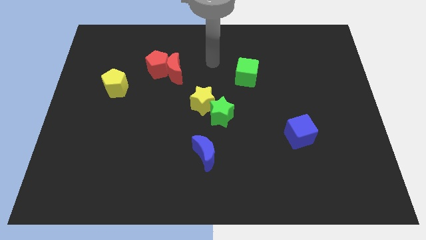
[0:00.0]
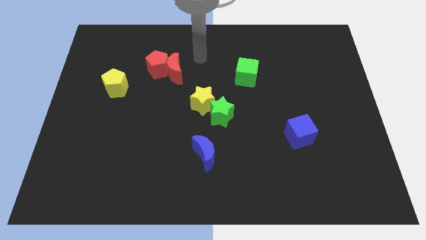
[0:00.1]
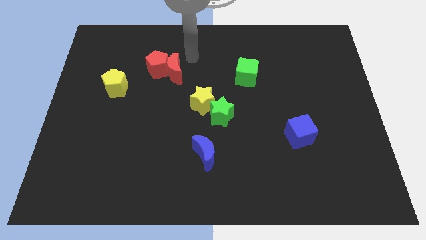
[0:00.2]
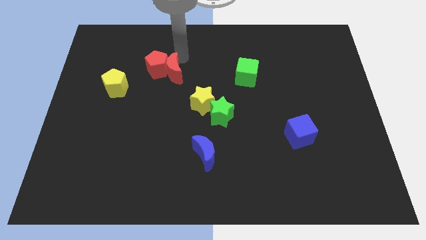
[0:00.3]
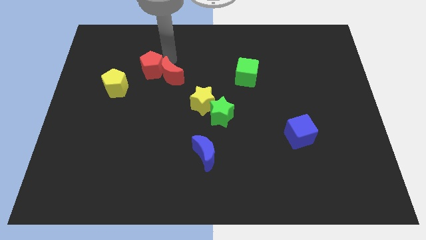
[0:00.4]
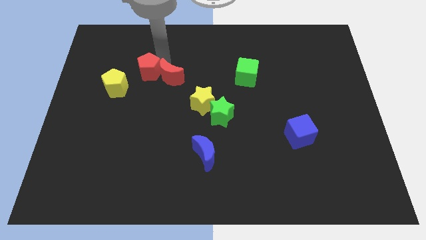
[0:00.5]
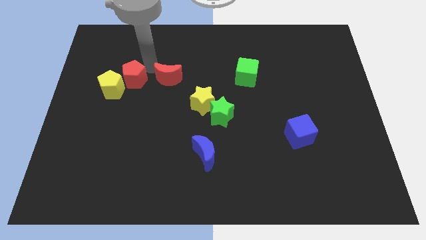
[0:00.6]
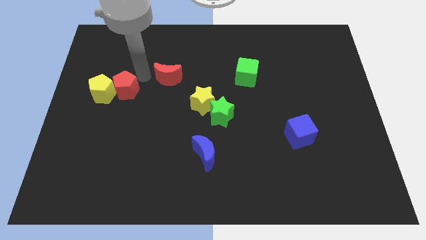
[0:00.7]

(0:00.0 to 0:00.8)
move the red moon away from the red pentagon

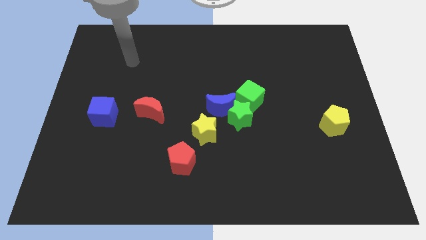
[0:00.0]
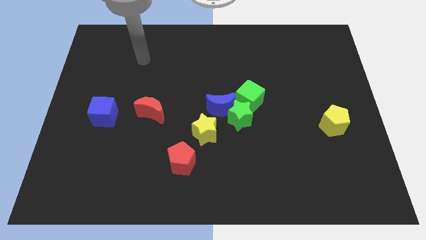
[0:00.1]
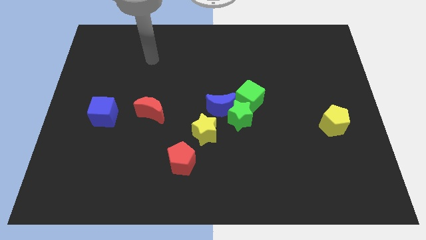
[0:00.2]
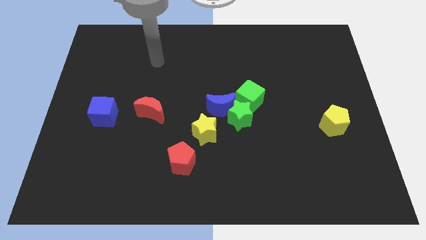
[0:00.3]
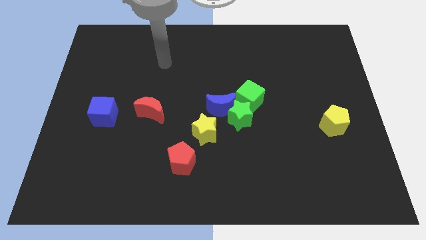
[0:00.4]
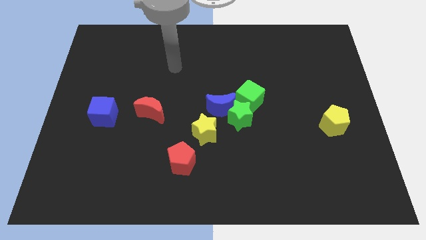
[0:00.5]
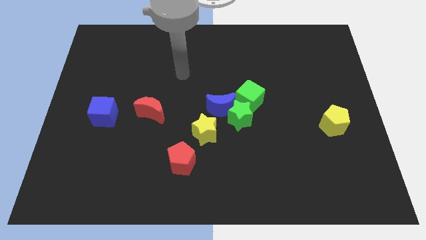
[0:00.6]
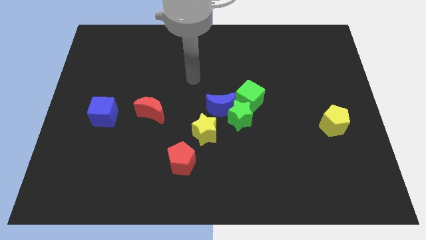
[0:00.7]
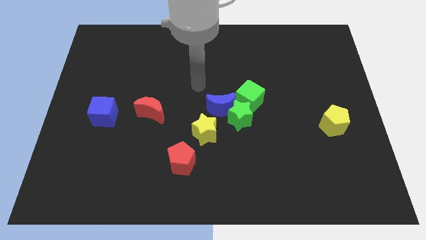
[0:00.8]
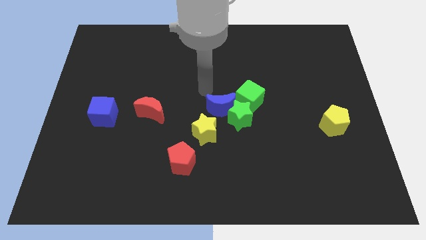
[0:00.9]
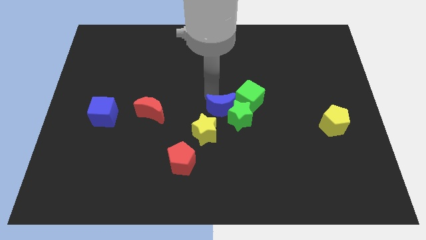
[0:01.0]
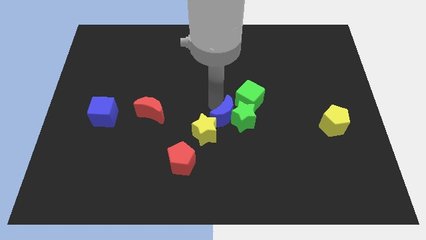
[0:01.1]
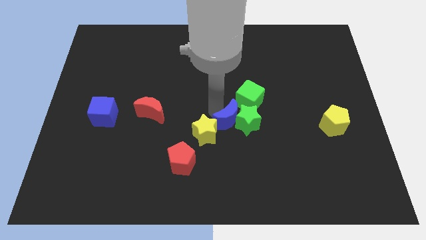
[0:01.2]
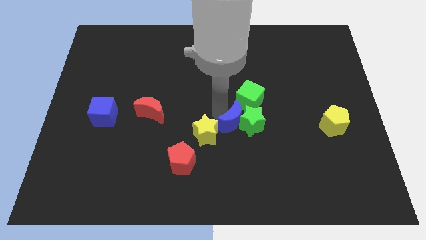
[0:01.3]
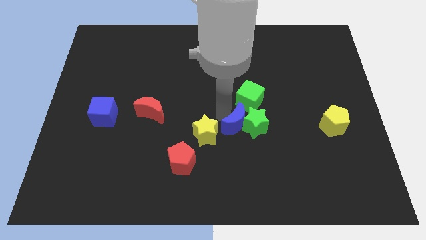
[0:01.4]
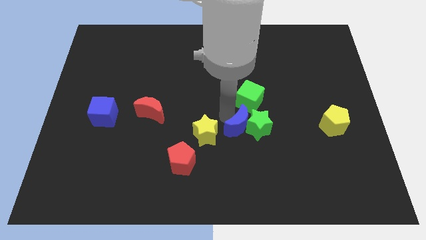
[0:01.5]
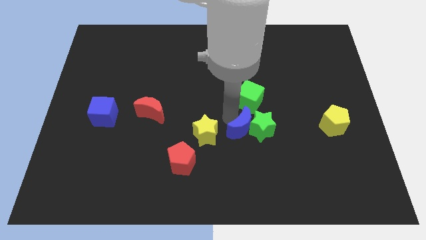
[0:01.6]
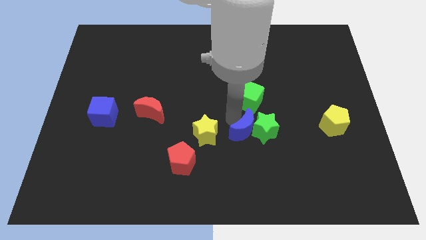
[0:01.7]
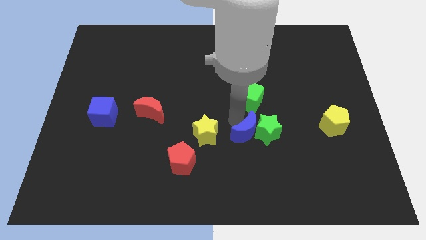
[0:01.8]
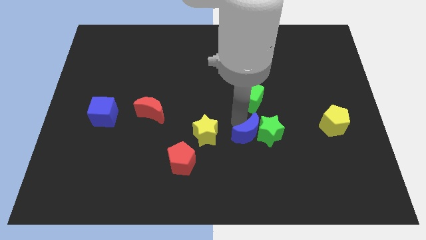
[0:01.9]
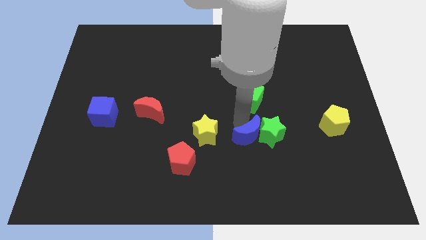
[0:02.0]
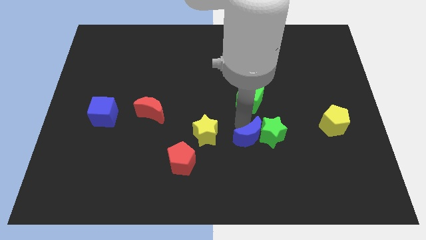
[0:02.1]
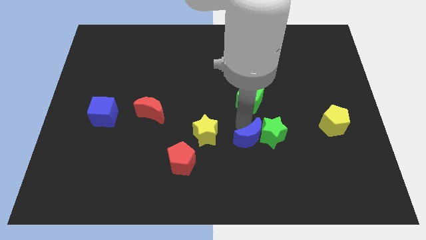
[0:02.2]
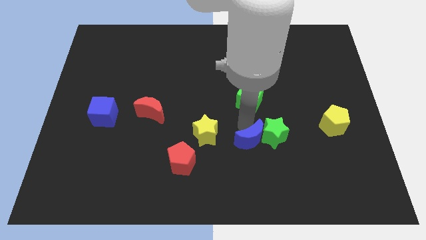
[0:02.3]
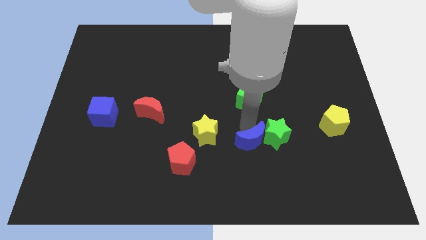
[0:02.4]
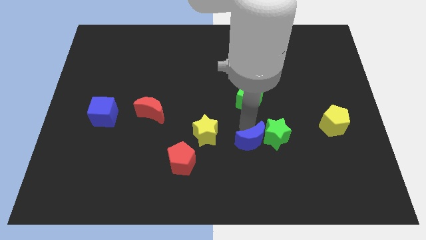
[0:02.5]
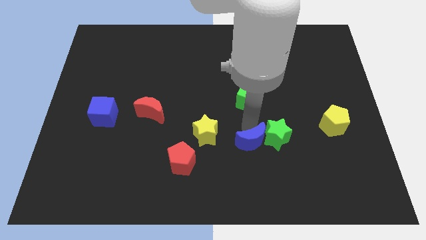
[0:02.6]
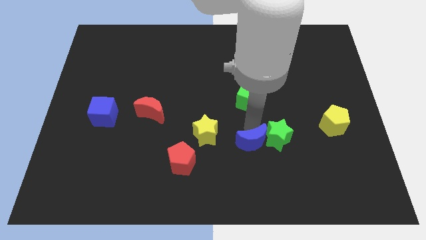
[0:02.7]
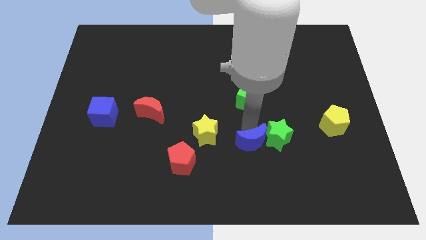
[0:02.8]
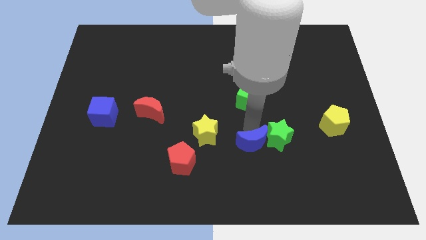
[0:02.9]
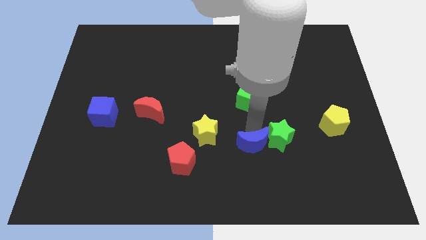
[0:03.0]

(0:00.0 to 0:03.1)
separate the green star from the blue moon, green cube, and yellow star

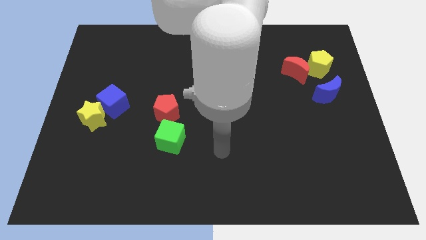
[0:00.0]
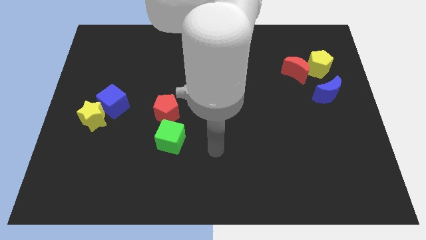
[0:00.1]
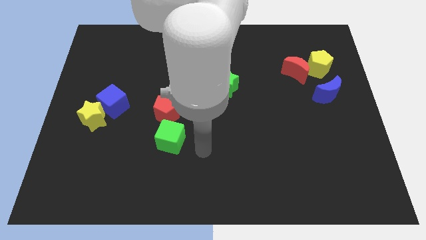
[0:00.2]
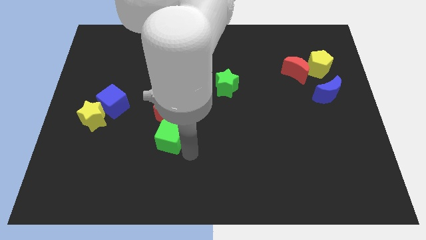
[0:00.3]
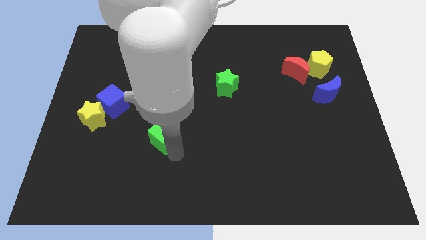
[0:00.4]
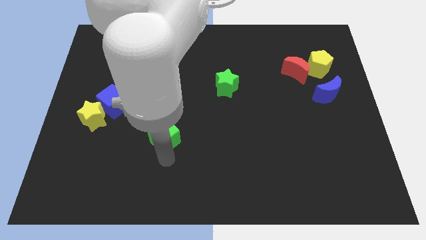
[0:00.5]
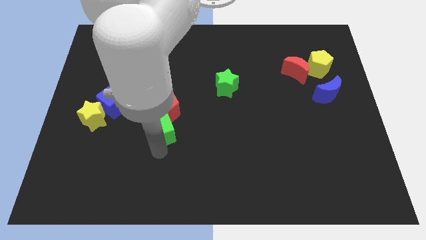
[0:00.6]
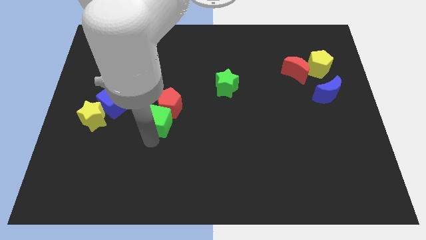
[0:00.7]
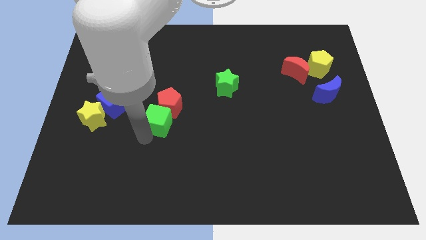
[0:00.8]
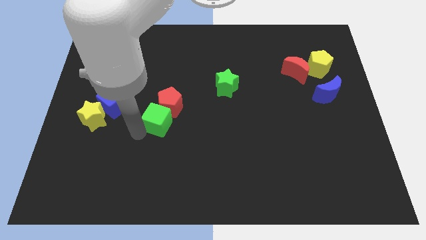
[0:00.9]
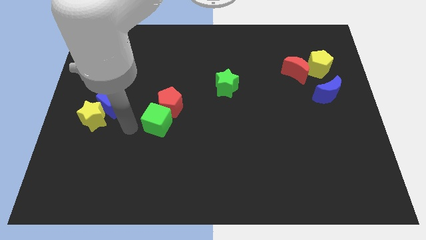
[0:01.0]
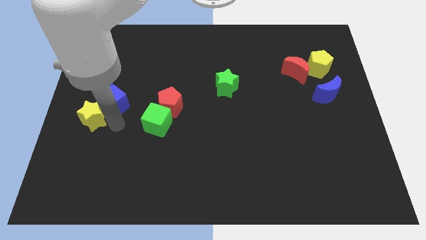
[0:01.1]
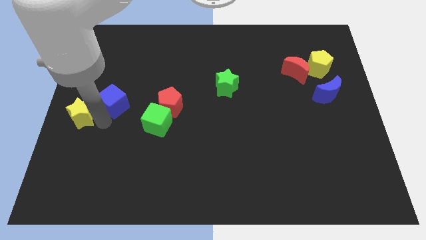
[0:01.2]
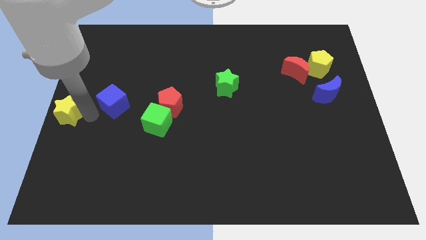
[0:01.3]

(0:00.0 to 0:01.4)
pull the blue cube apart from the yellow star

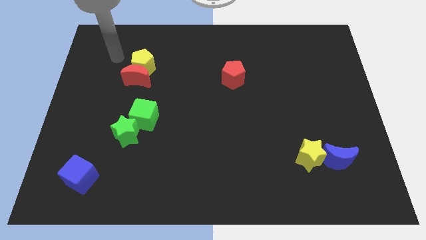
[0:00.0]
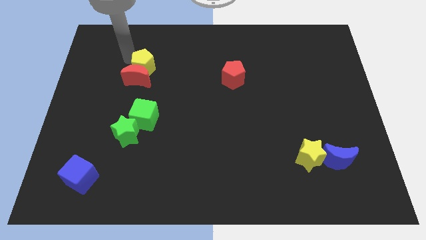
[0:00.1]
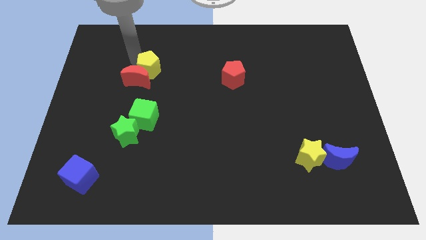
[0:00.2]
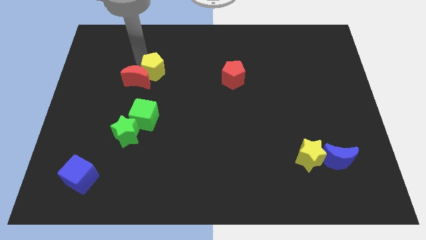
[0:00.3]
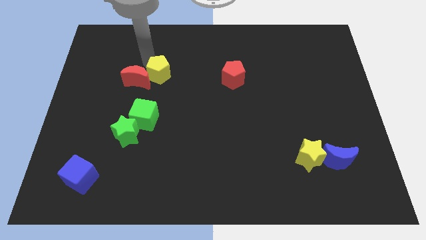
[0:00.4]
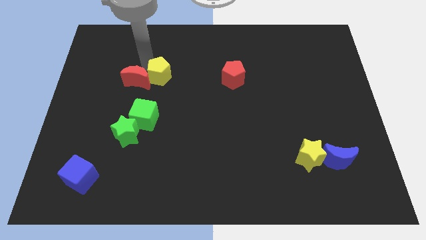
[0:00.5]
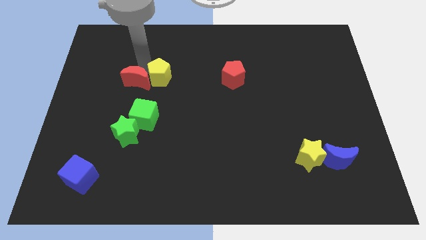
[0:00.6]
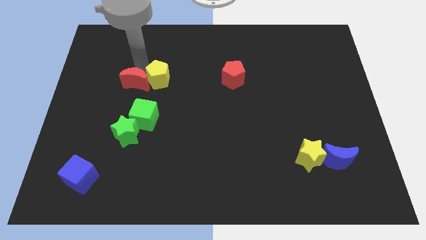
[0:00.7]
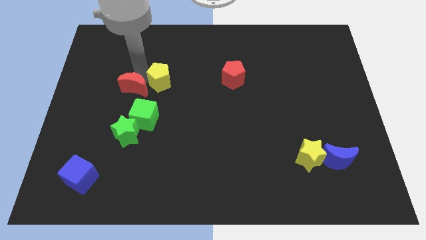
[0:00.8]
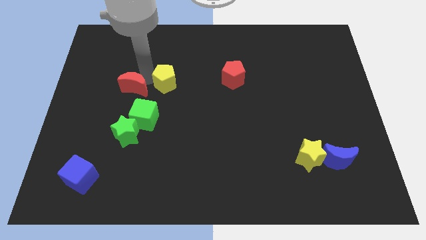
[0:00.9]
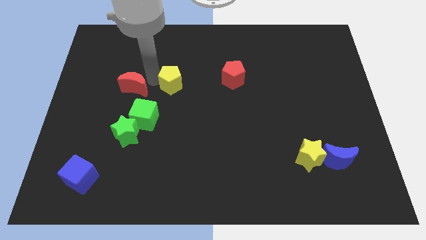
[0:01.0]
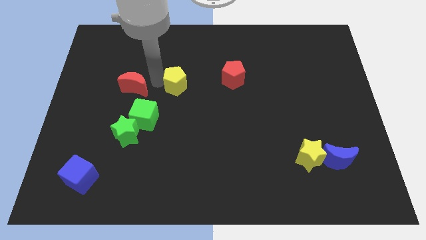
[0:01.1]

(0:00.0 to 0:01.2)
separate the red moon from the yellow pentagon

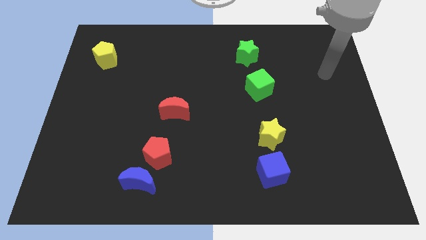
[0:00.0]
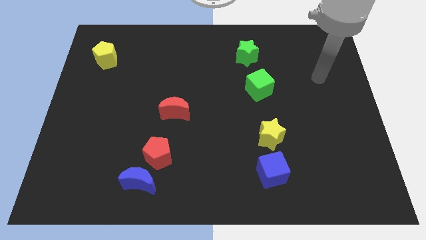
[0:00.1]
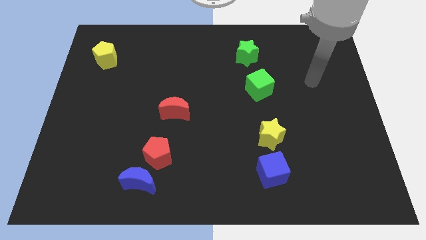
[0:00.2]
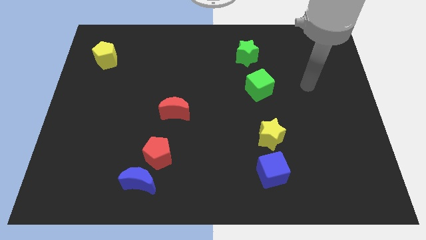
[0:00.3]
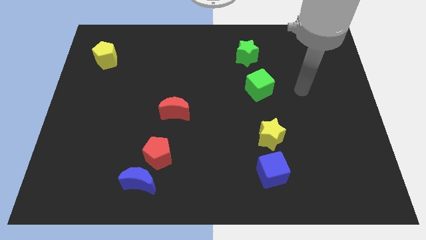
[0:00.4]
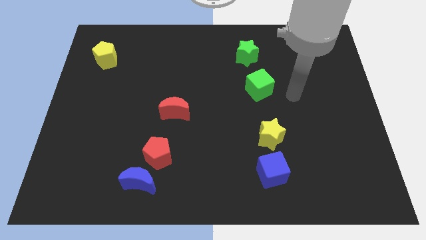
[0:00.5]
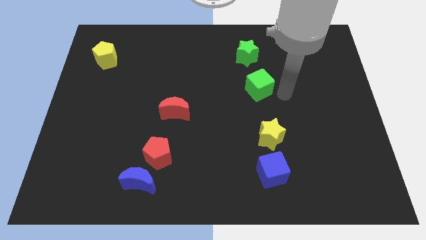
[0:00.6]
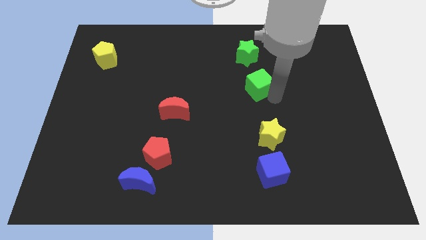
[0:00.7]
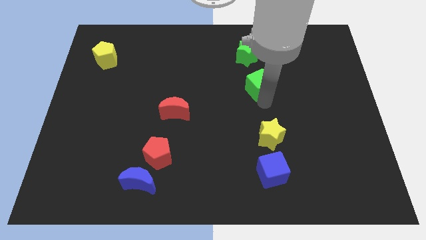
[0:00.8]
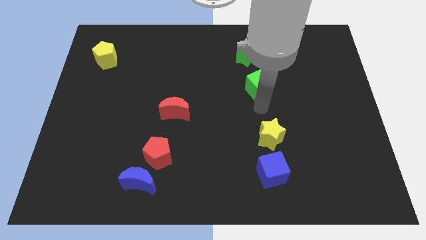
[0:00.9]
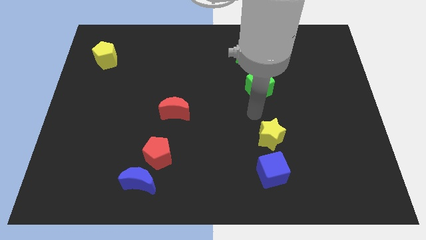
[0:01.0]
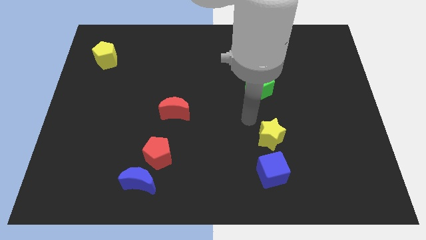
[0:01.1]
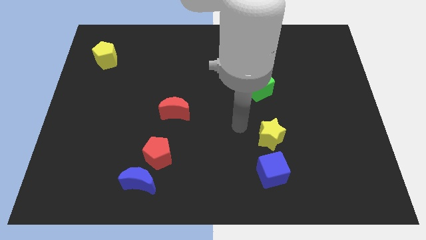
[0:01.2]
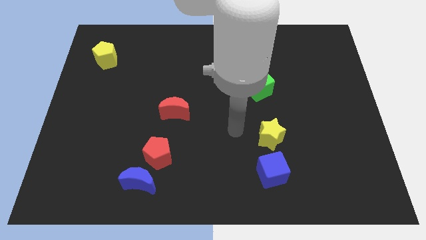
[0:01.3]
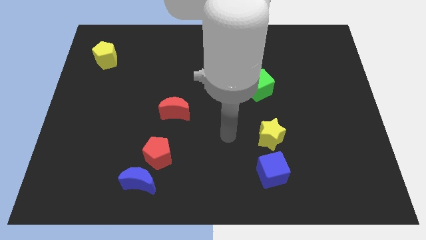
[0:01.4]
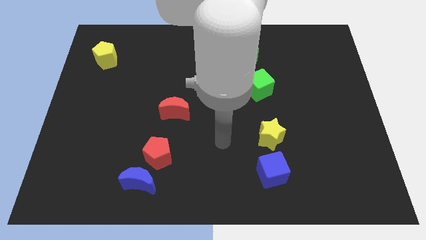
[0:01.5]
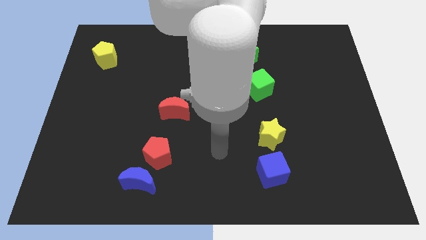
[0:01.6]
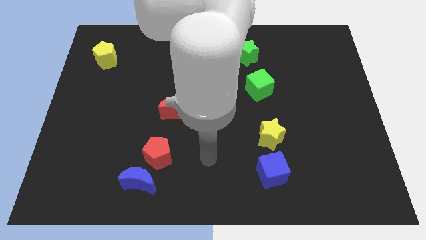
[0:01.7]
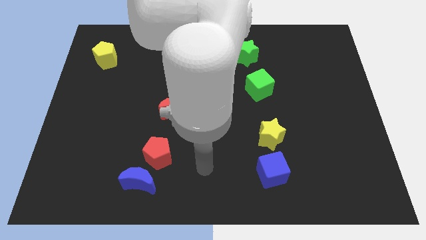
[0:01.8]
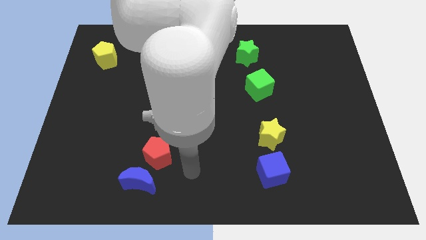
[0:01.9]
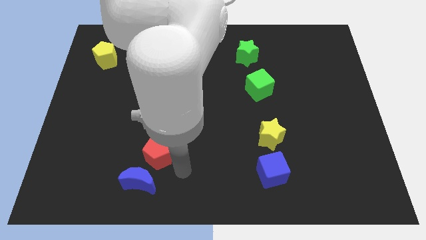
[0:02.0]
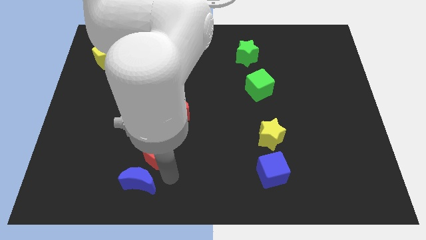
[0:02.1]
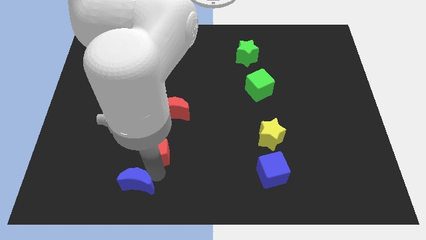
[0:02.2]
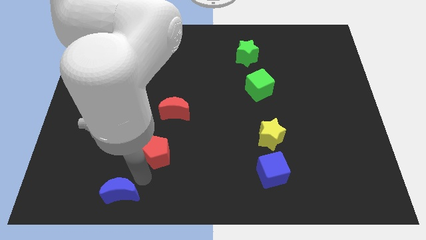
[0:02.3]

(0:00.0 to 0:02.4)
pull the red pentagon apart from the blue moon

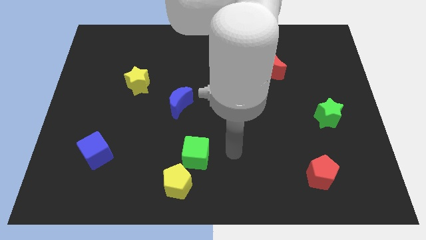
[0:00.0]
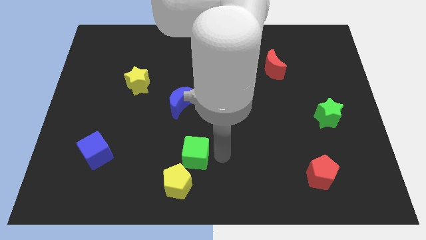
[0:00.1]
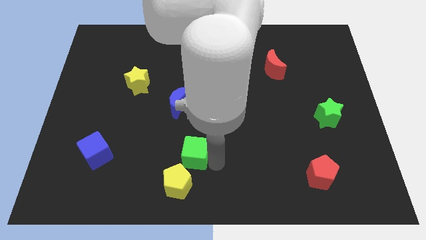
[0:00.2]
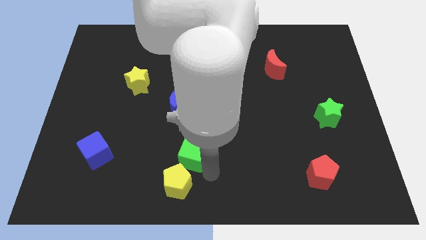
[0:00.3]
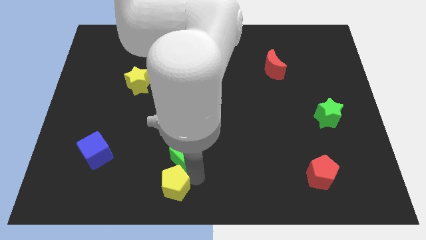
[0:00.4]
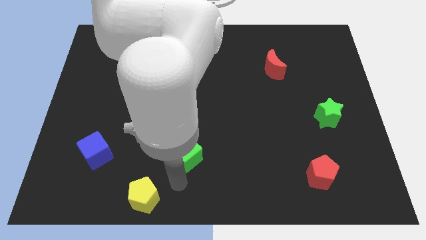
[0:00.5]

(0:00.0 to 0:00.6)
separate the green cube from the yellow pentagon
